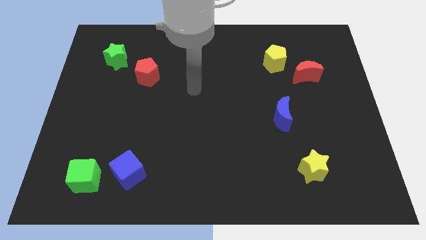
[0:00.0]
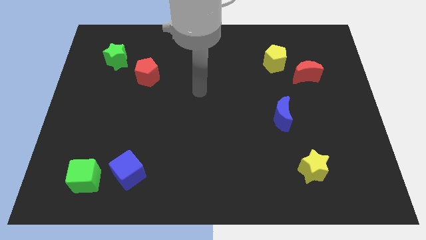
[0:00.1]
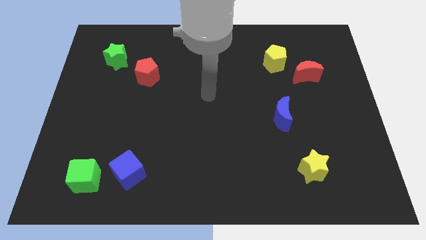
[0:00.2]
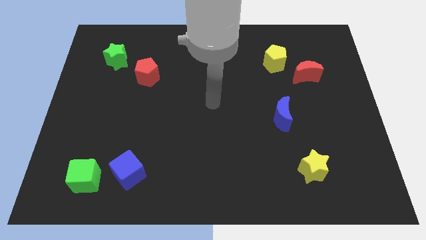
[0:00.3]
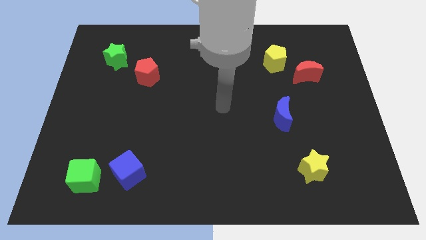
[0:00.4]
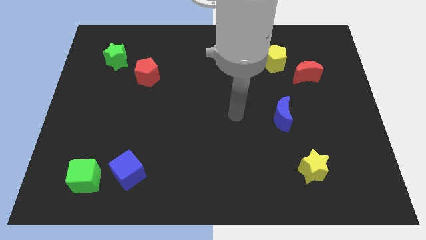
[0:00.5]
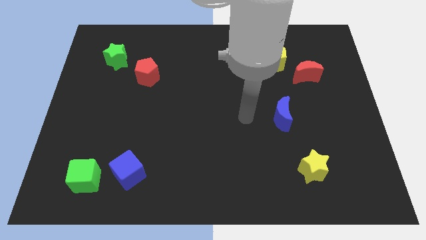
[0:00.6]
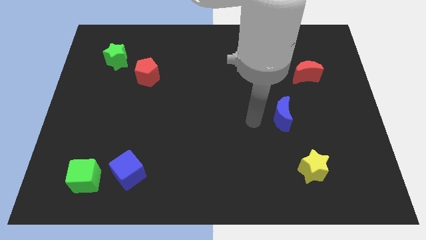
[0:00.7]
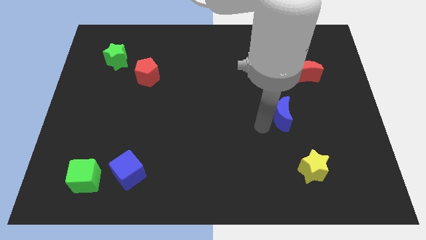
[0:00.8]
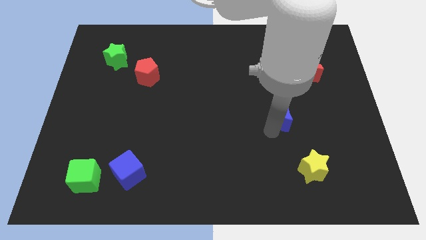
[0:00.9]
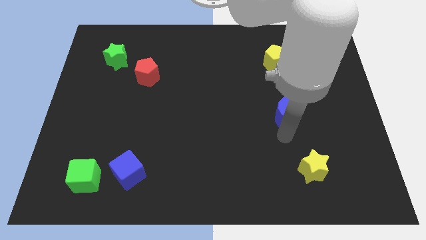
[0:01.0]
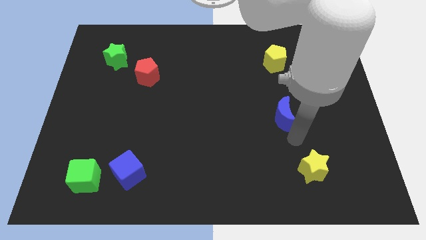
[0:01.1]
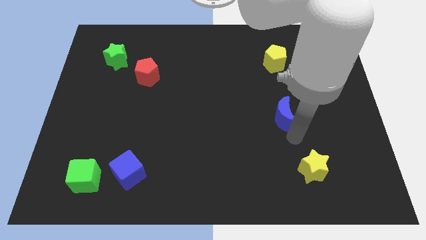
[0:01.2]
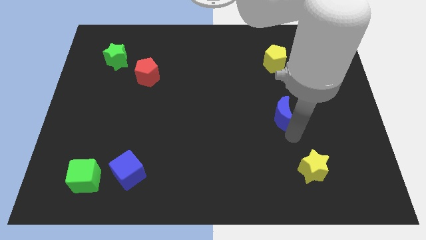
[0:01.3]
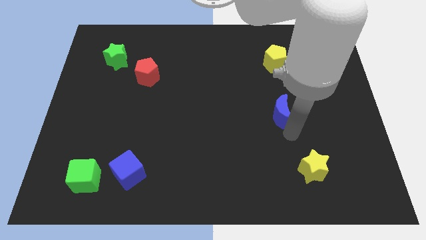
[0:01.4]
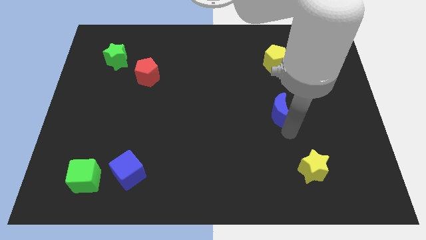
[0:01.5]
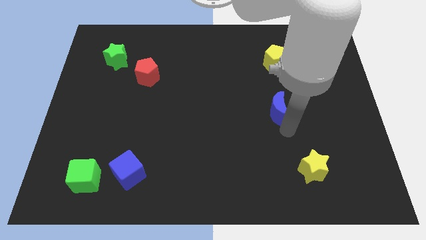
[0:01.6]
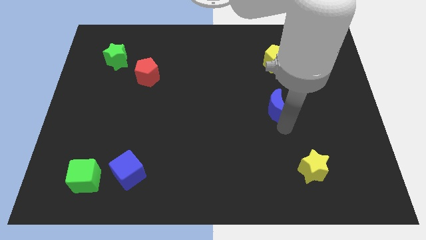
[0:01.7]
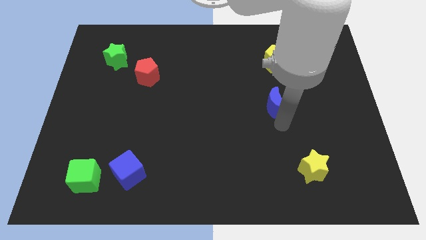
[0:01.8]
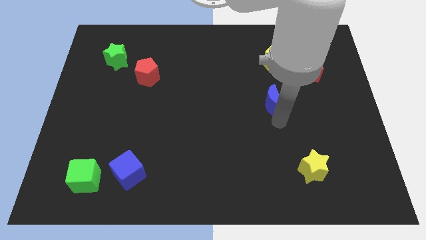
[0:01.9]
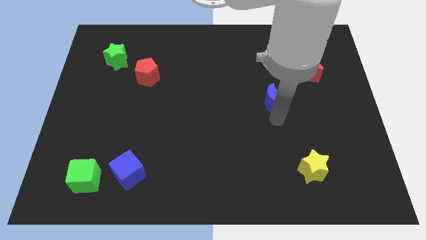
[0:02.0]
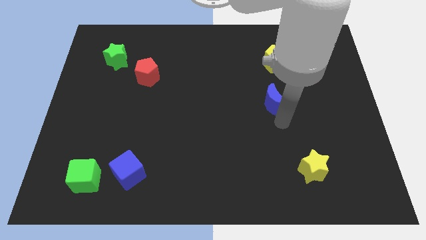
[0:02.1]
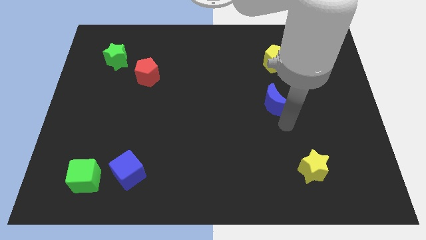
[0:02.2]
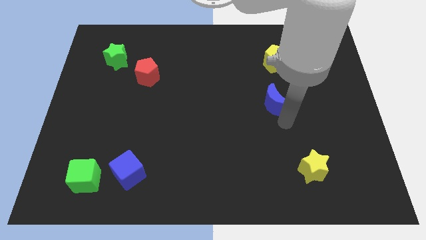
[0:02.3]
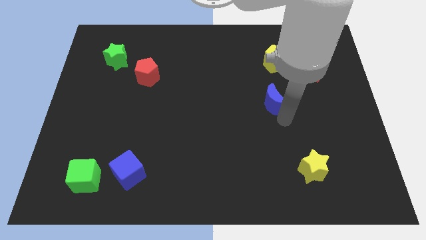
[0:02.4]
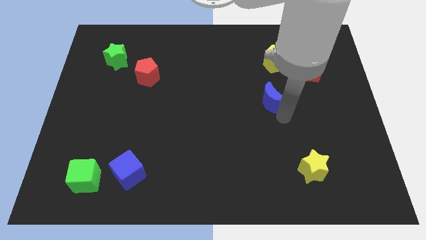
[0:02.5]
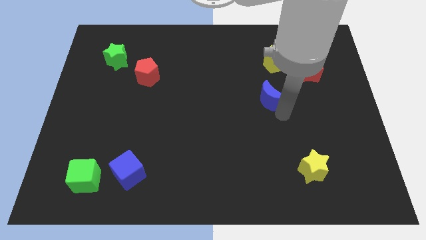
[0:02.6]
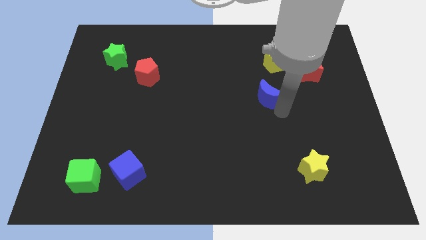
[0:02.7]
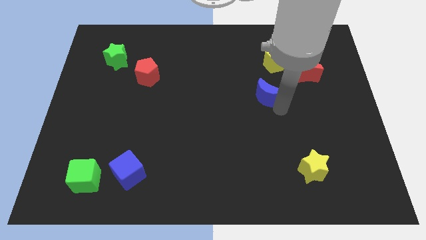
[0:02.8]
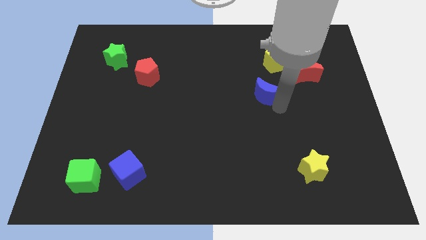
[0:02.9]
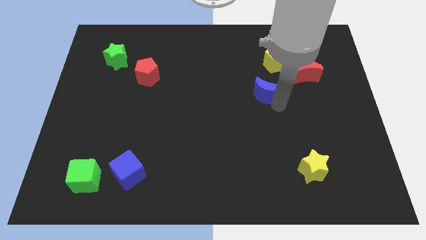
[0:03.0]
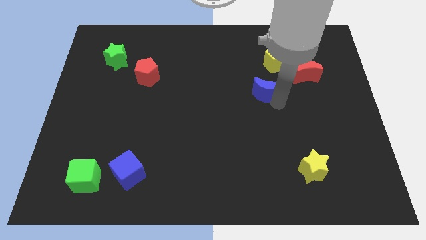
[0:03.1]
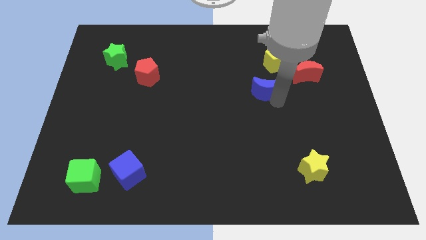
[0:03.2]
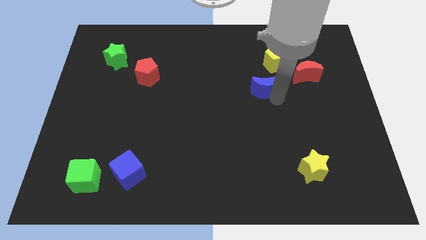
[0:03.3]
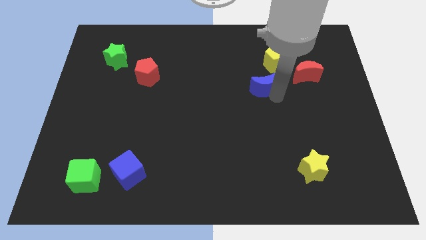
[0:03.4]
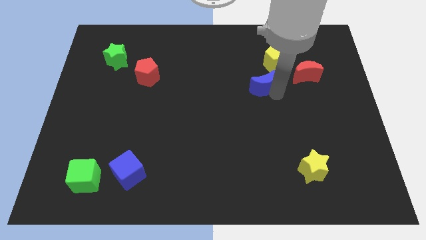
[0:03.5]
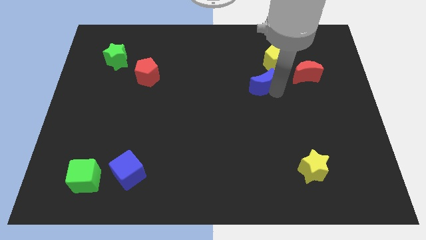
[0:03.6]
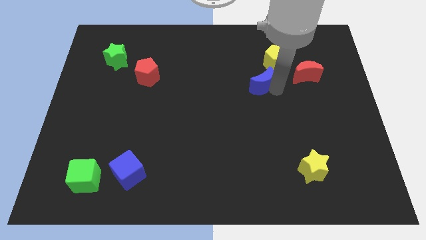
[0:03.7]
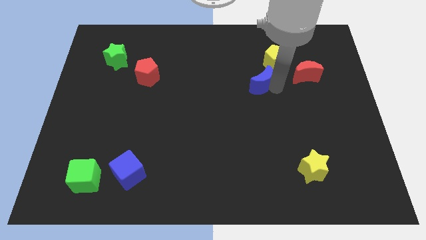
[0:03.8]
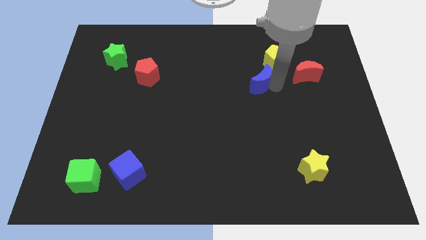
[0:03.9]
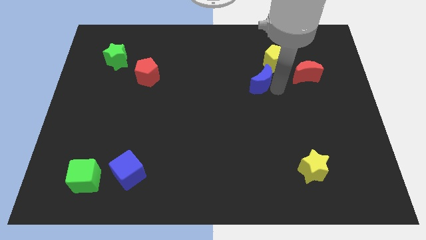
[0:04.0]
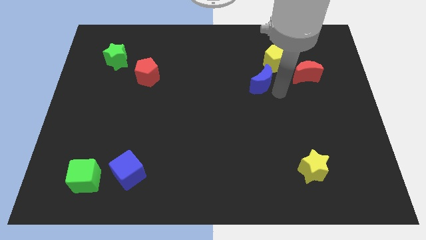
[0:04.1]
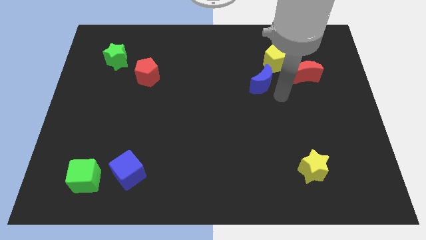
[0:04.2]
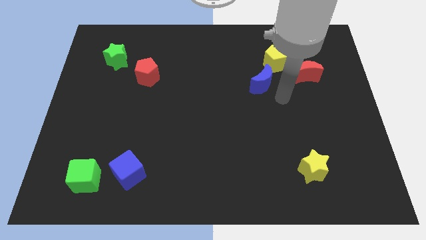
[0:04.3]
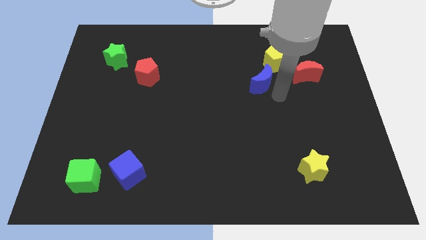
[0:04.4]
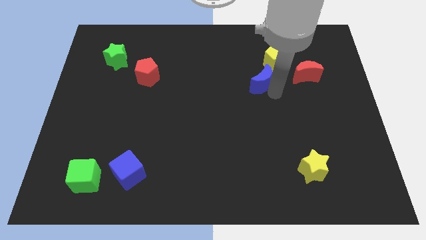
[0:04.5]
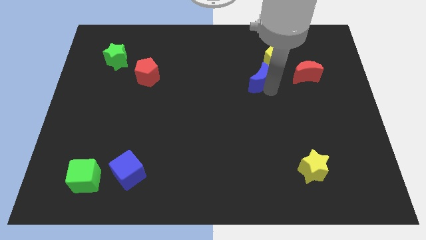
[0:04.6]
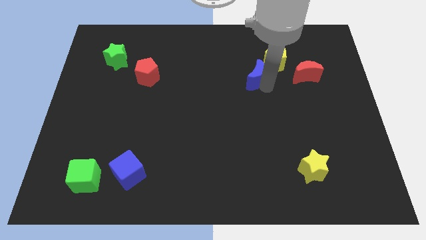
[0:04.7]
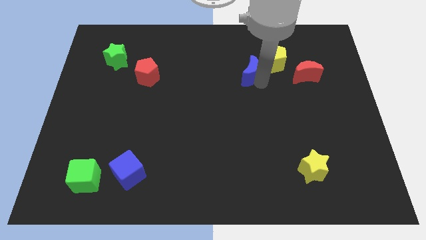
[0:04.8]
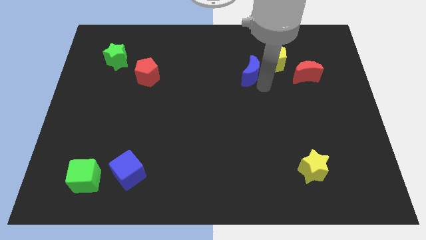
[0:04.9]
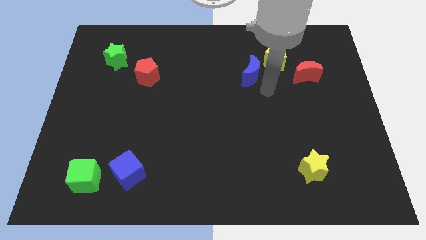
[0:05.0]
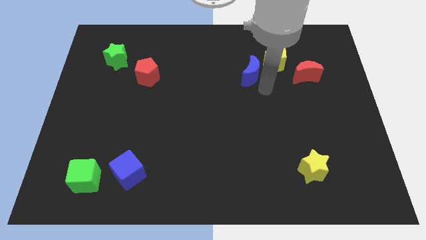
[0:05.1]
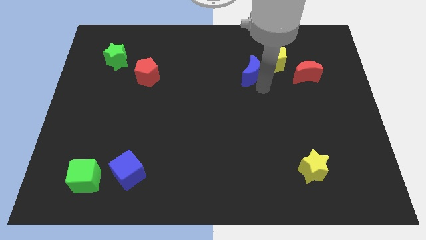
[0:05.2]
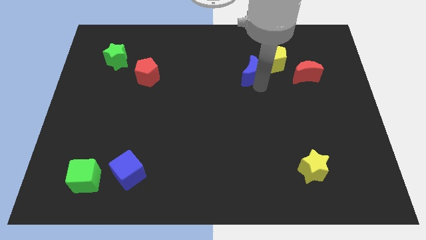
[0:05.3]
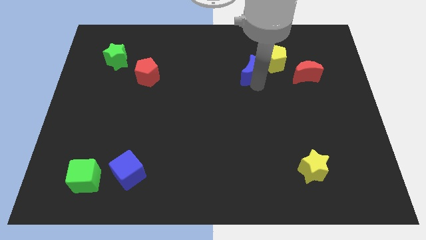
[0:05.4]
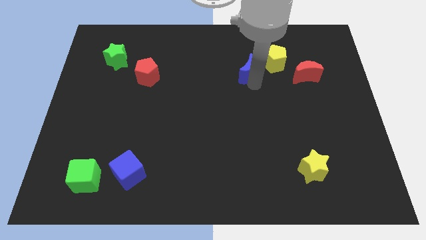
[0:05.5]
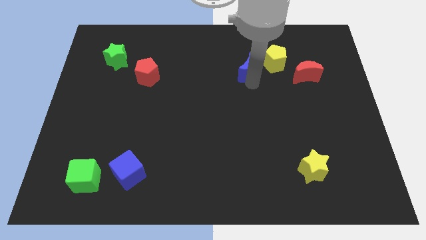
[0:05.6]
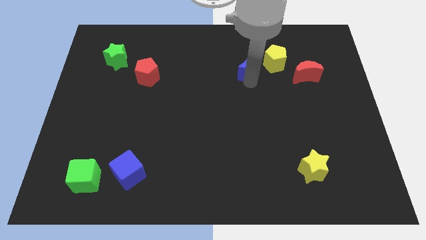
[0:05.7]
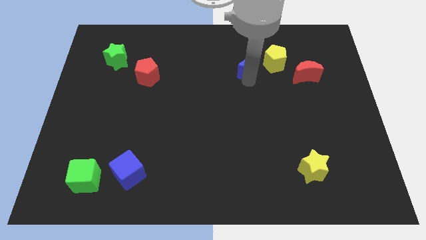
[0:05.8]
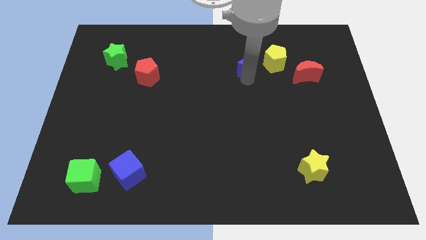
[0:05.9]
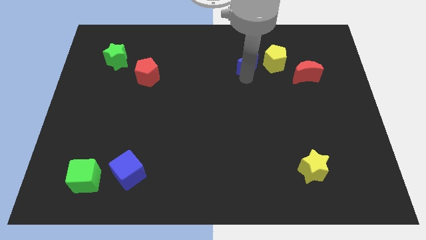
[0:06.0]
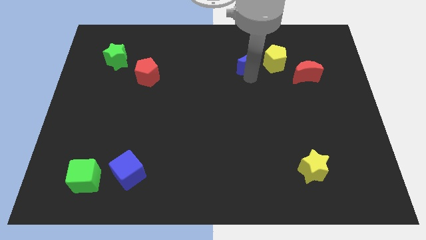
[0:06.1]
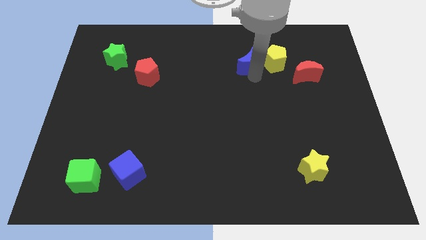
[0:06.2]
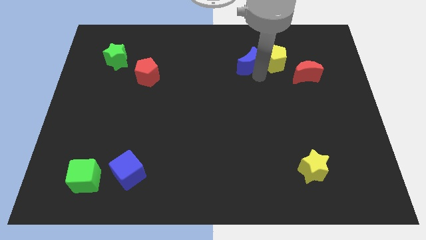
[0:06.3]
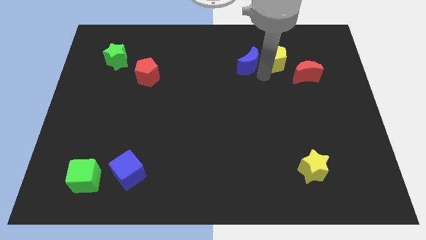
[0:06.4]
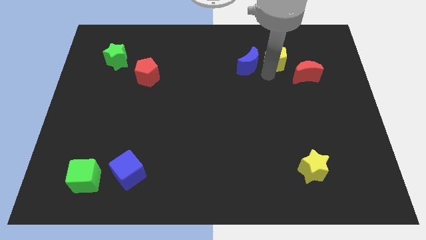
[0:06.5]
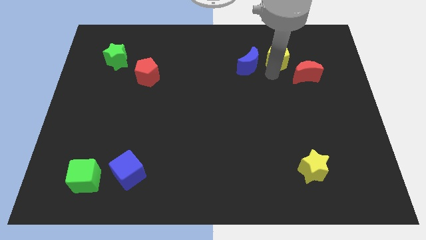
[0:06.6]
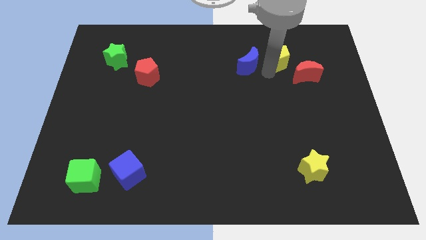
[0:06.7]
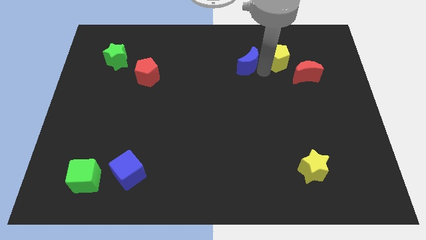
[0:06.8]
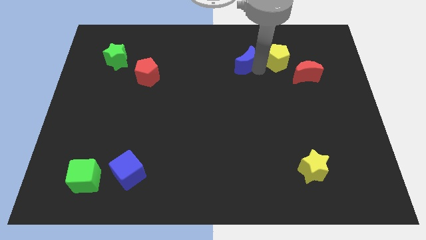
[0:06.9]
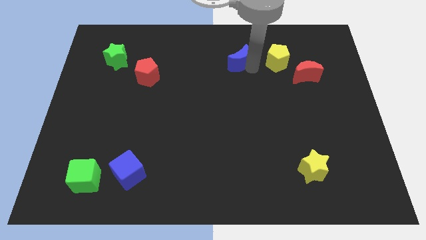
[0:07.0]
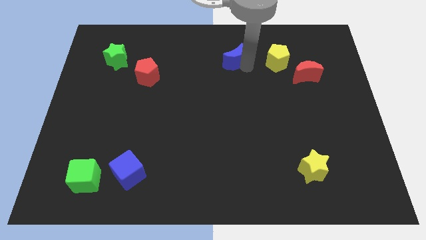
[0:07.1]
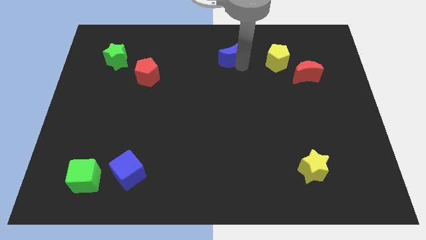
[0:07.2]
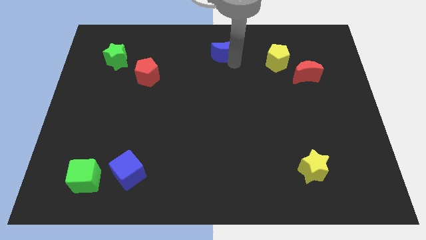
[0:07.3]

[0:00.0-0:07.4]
push the blue moon to the towards your base

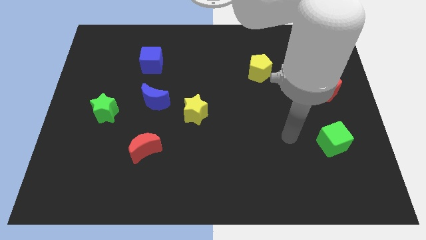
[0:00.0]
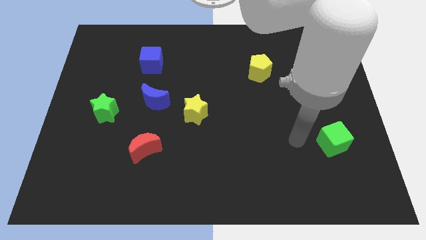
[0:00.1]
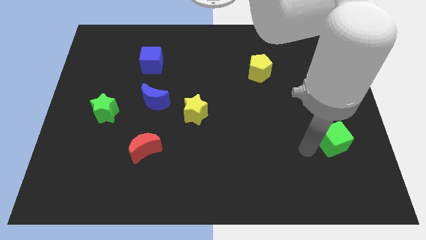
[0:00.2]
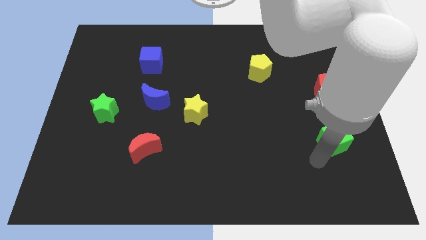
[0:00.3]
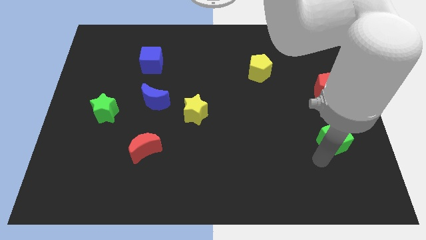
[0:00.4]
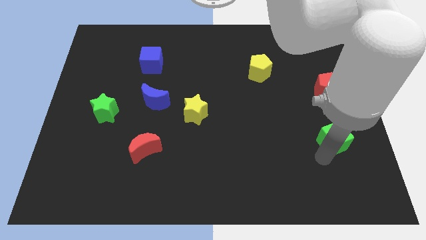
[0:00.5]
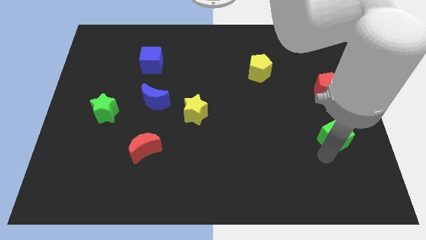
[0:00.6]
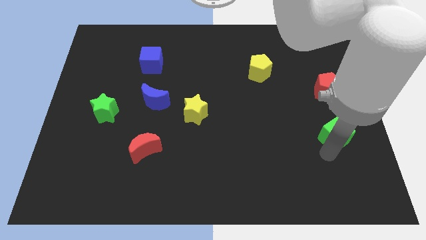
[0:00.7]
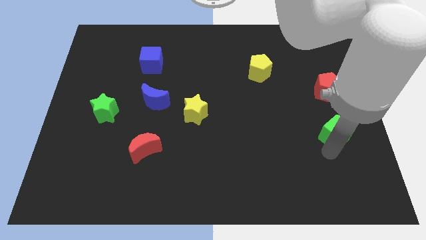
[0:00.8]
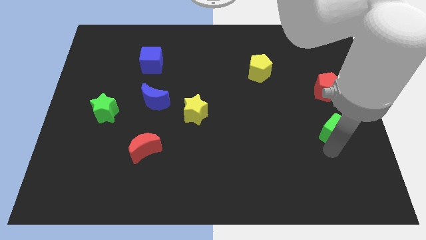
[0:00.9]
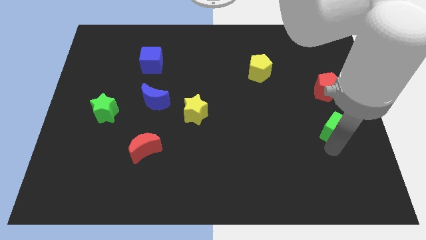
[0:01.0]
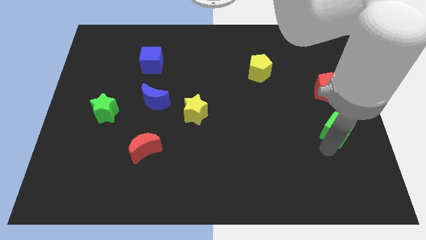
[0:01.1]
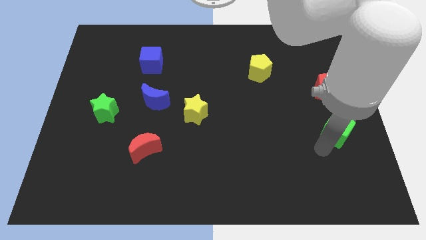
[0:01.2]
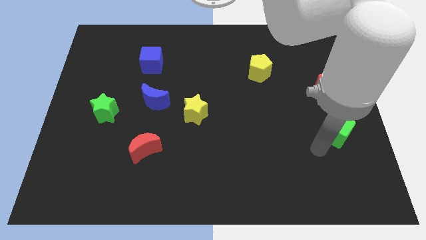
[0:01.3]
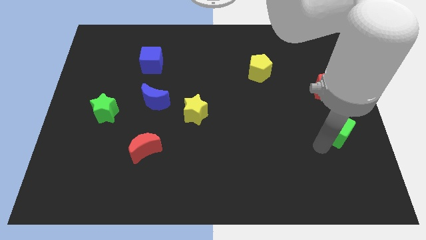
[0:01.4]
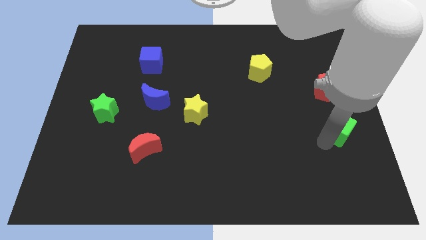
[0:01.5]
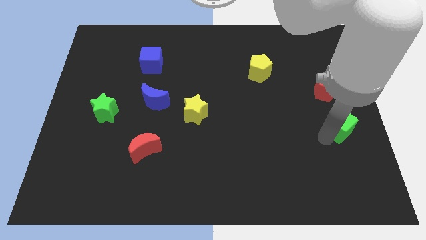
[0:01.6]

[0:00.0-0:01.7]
put the green cube to the center right
